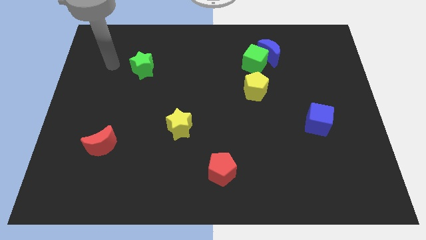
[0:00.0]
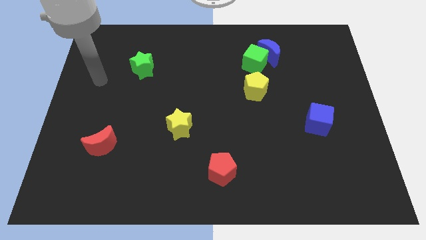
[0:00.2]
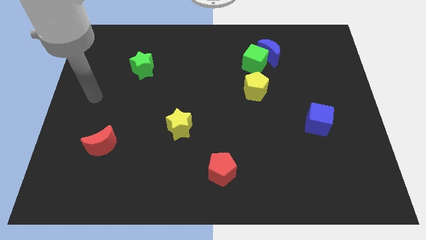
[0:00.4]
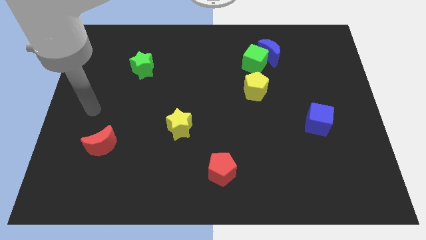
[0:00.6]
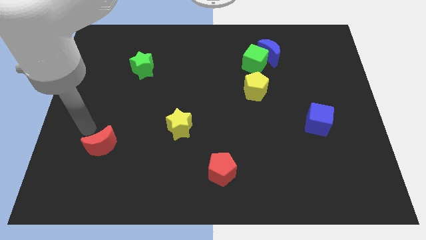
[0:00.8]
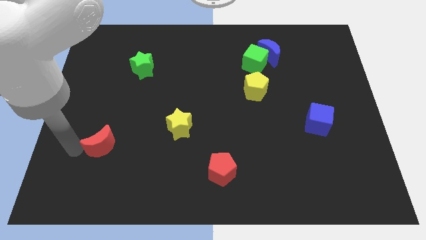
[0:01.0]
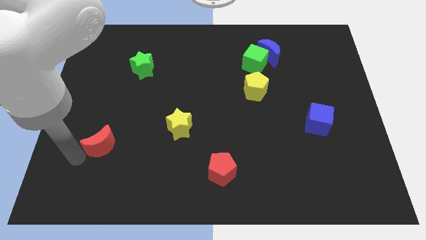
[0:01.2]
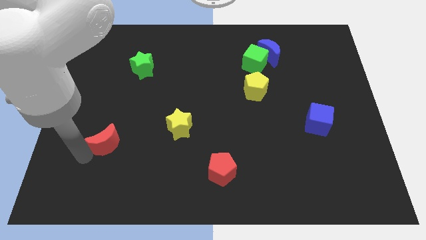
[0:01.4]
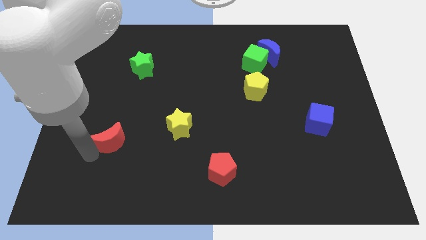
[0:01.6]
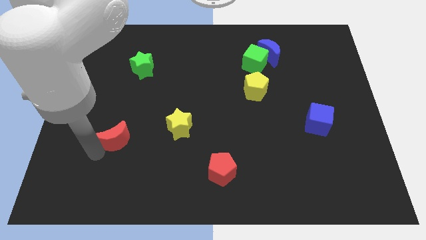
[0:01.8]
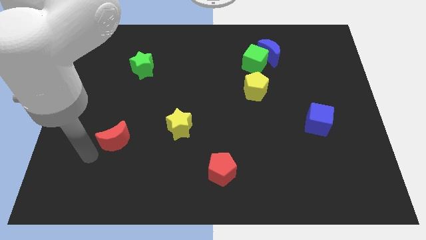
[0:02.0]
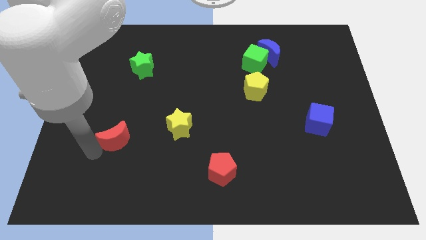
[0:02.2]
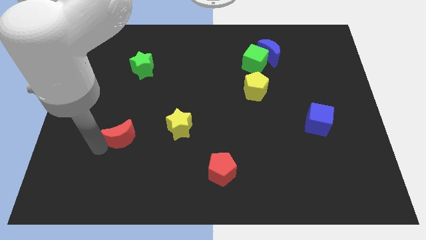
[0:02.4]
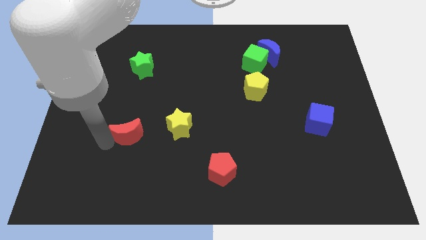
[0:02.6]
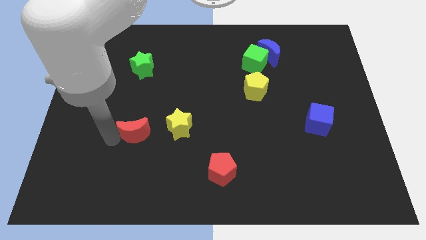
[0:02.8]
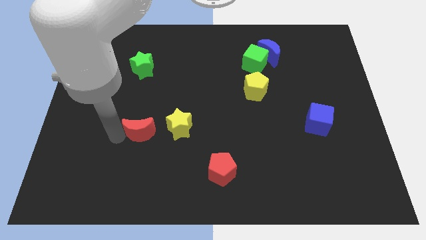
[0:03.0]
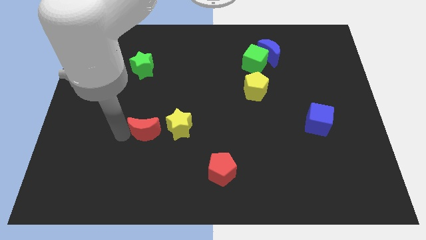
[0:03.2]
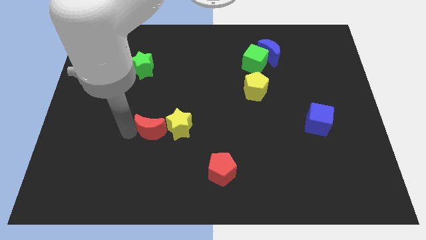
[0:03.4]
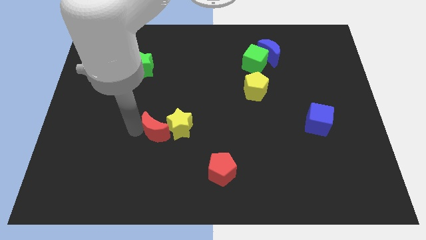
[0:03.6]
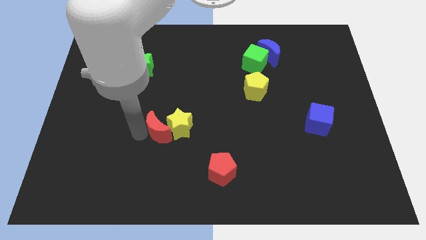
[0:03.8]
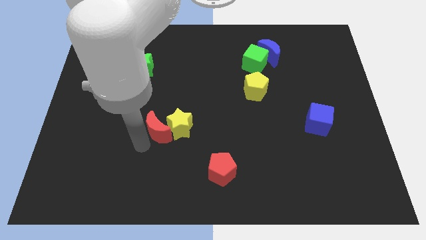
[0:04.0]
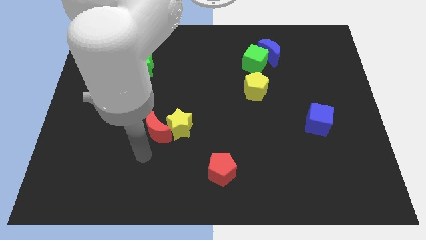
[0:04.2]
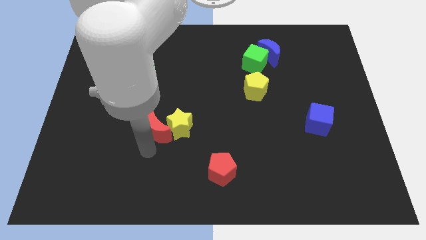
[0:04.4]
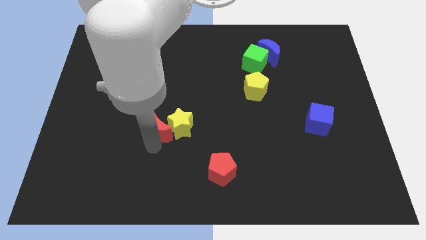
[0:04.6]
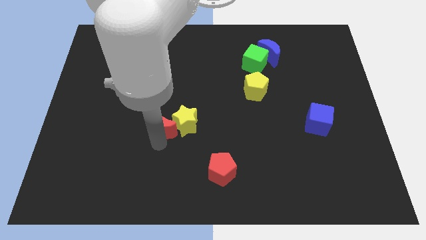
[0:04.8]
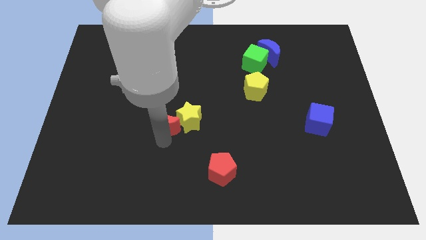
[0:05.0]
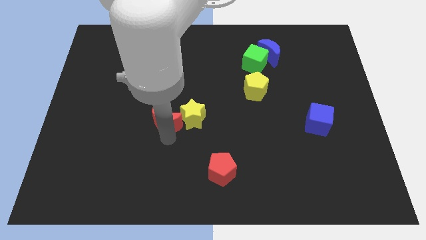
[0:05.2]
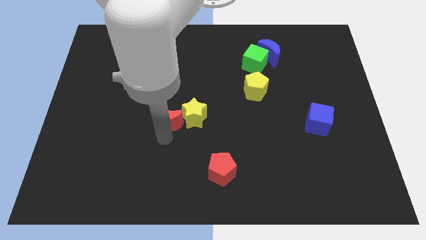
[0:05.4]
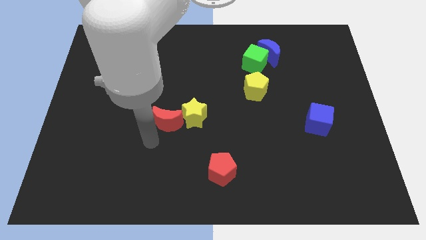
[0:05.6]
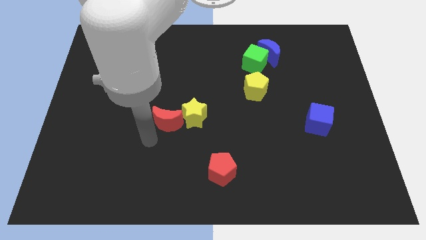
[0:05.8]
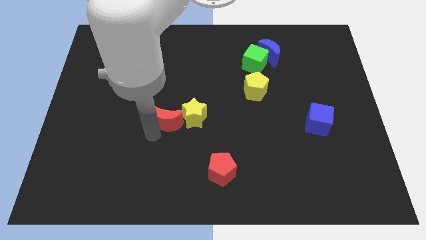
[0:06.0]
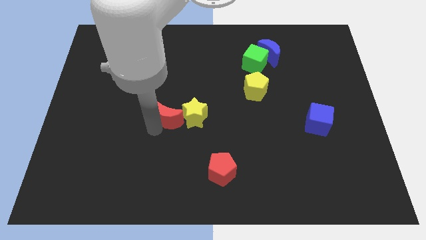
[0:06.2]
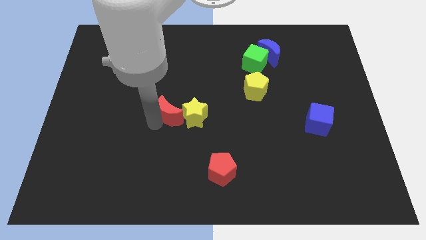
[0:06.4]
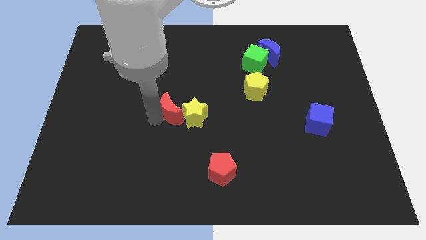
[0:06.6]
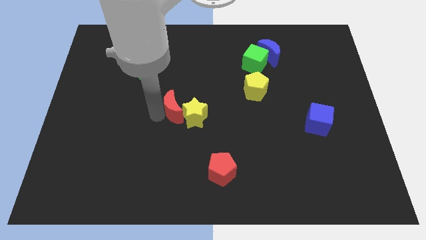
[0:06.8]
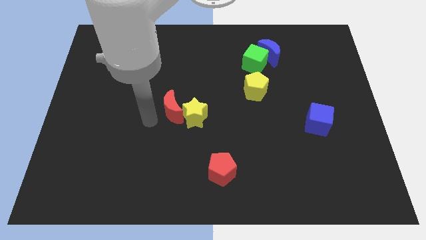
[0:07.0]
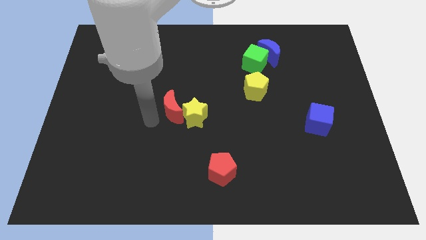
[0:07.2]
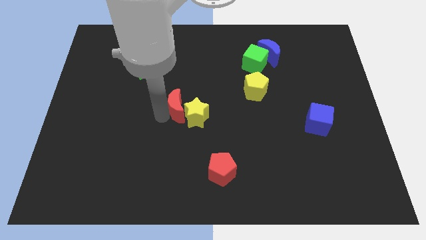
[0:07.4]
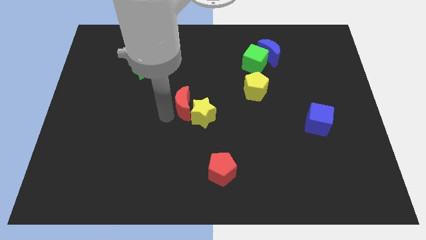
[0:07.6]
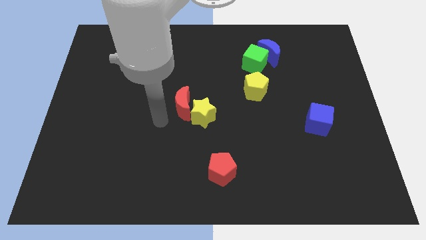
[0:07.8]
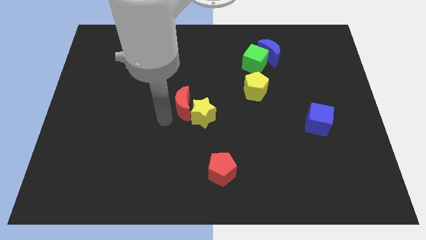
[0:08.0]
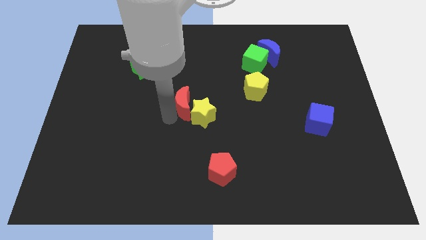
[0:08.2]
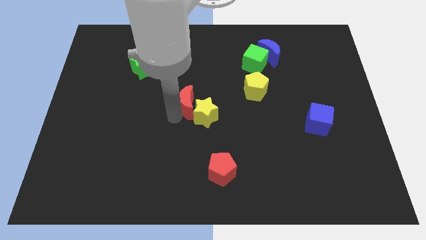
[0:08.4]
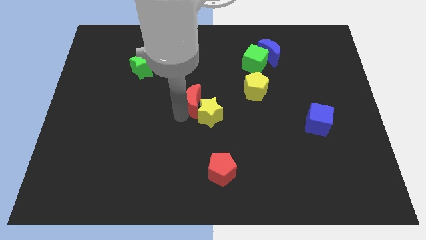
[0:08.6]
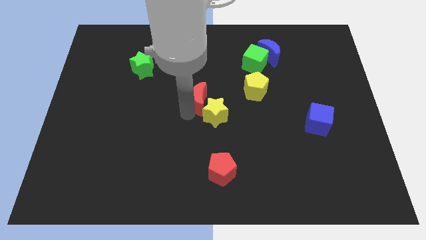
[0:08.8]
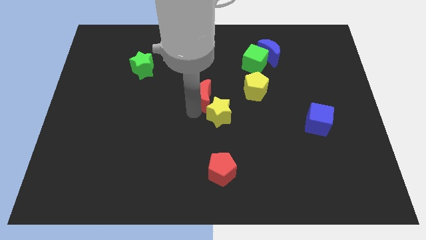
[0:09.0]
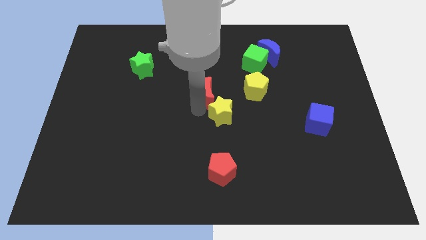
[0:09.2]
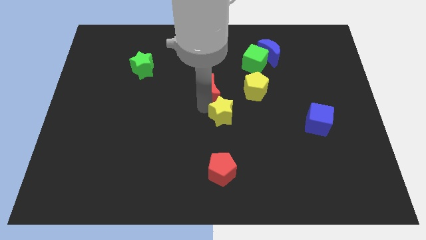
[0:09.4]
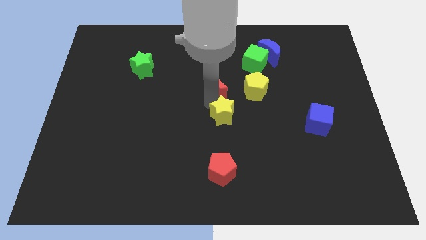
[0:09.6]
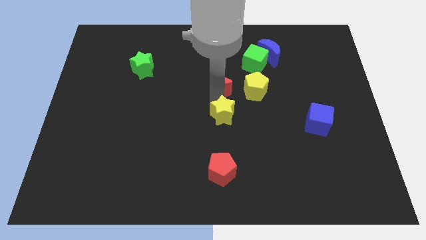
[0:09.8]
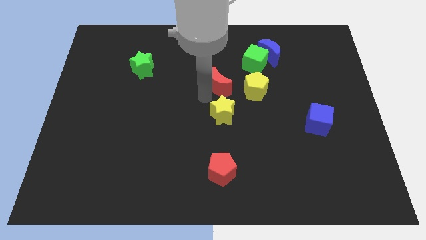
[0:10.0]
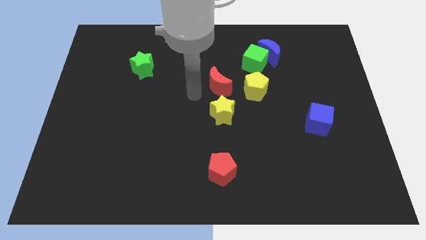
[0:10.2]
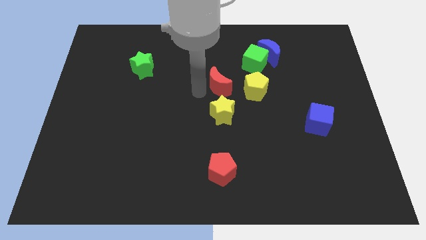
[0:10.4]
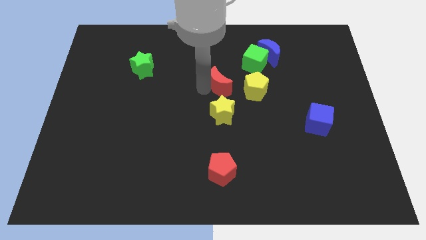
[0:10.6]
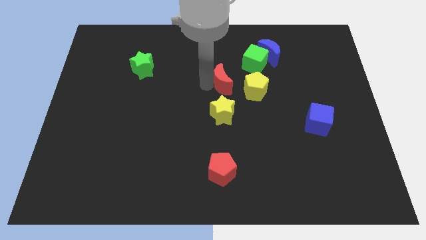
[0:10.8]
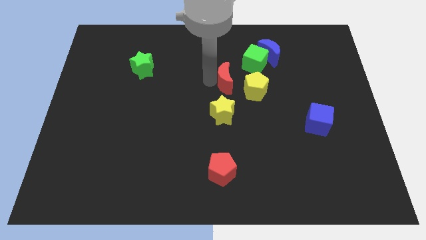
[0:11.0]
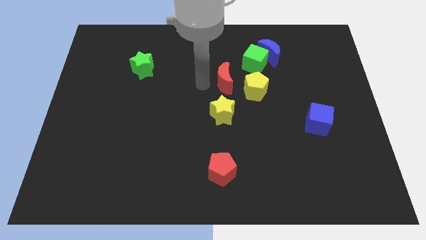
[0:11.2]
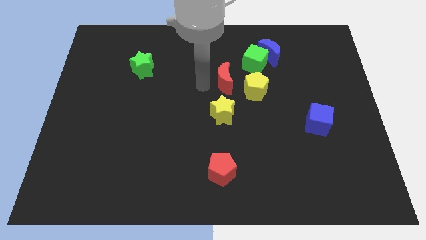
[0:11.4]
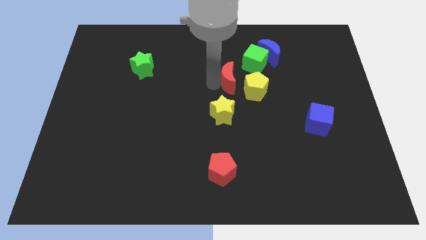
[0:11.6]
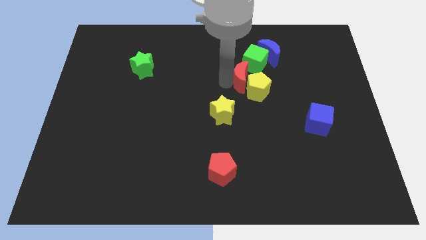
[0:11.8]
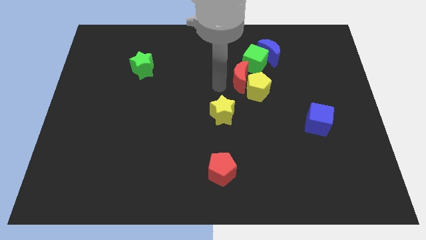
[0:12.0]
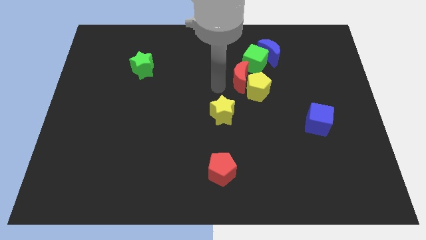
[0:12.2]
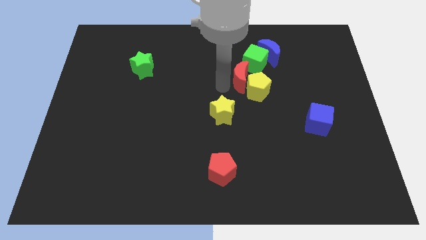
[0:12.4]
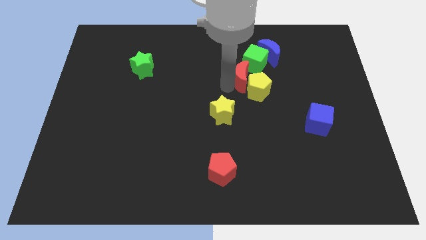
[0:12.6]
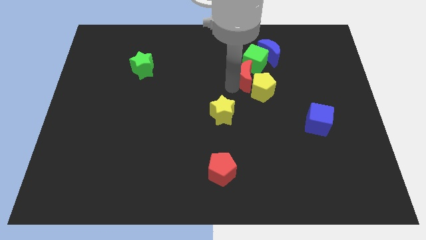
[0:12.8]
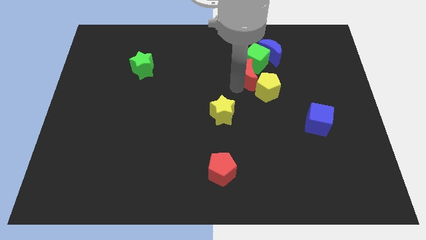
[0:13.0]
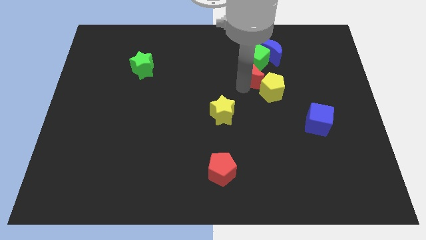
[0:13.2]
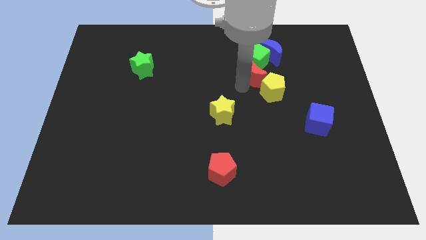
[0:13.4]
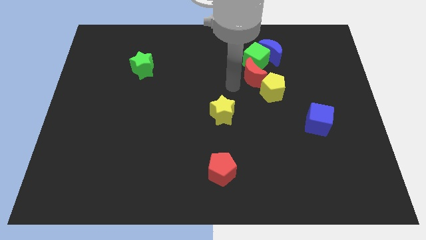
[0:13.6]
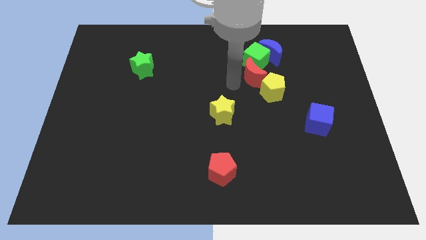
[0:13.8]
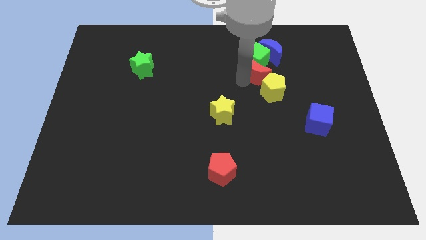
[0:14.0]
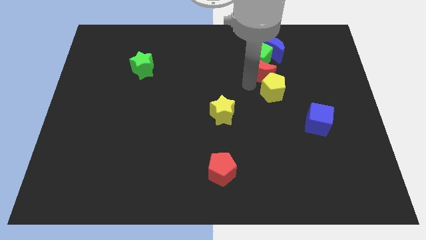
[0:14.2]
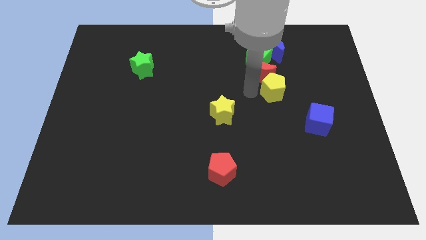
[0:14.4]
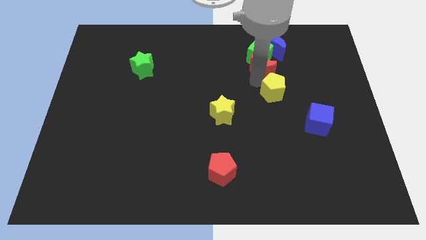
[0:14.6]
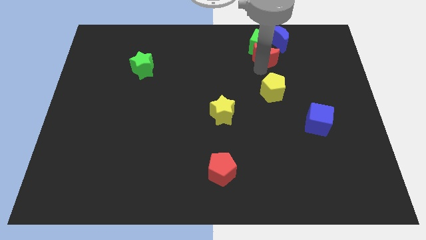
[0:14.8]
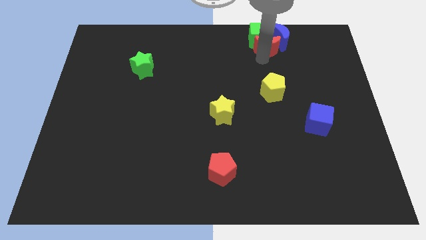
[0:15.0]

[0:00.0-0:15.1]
push the red moon next to the blue moon
